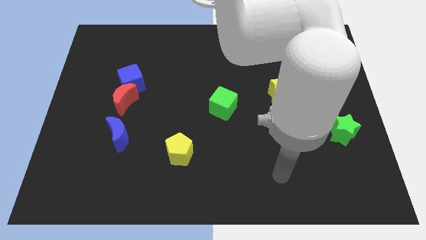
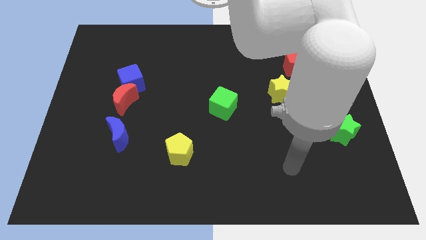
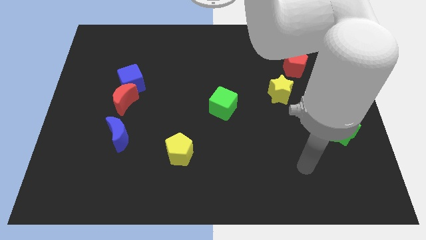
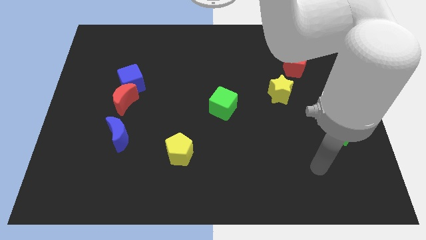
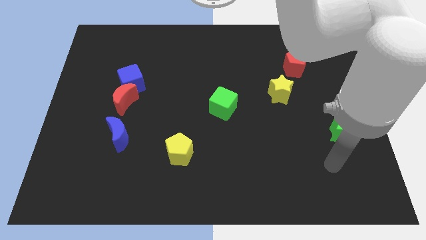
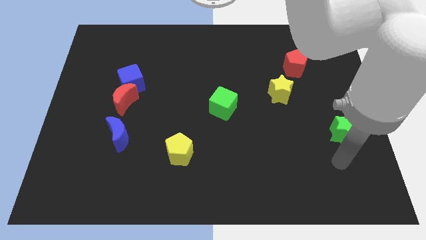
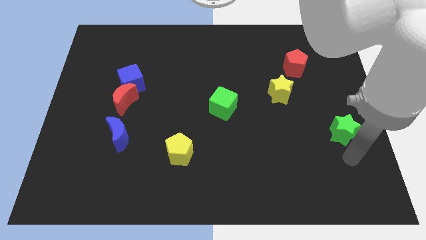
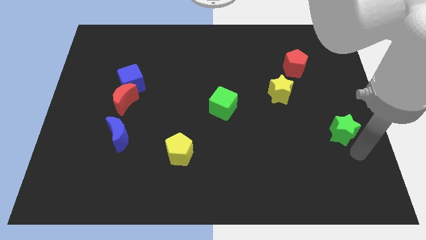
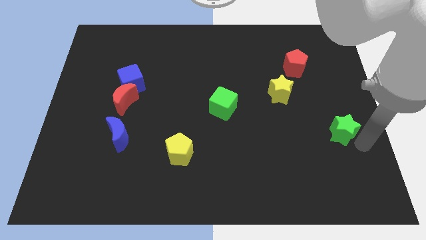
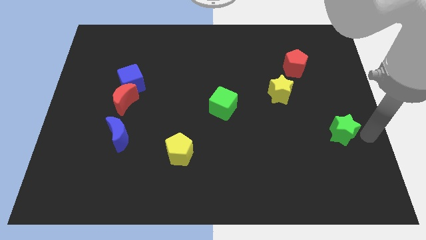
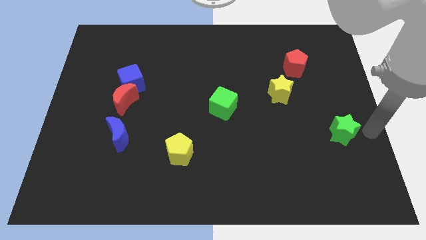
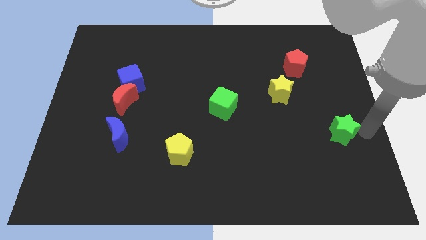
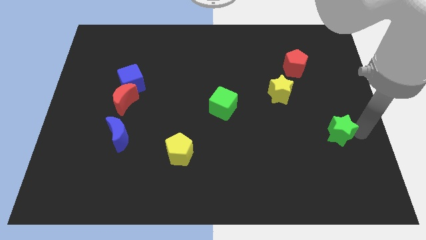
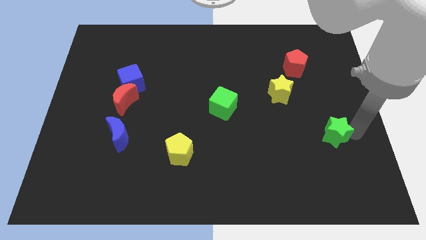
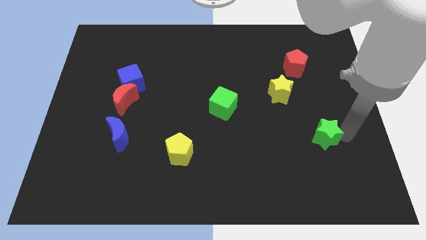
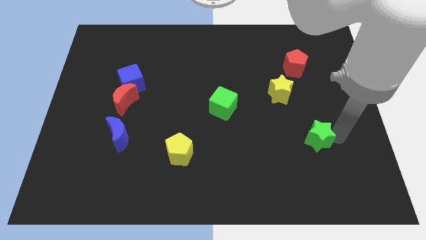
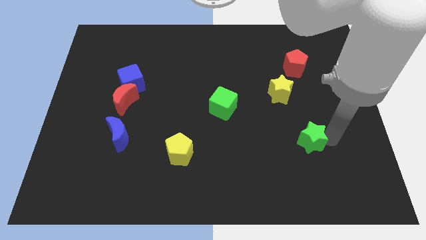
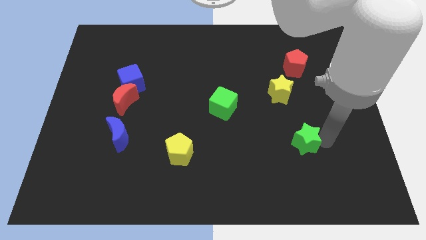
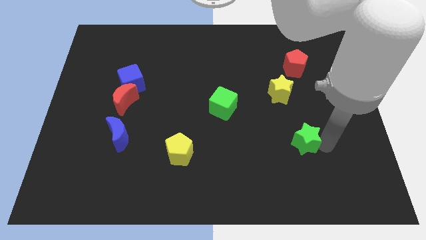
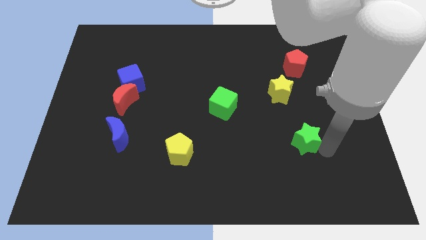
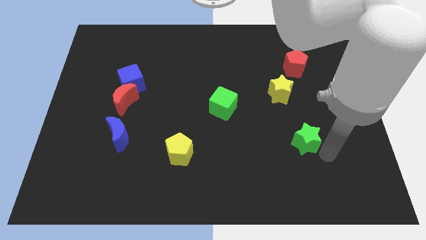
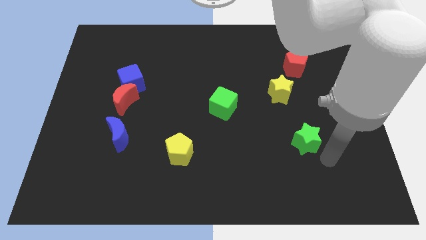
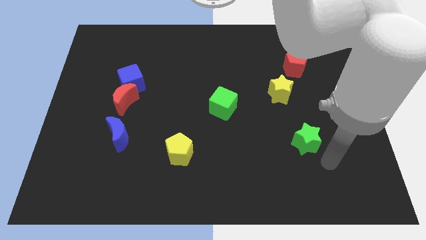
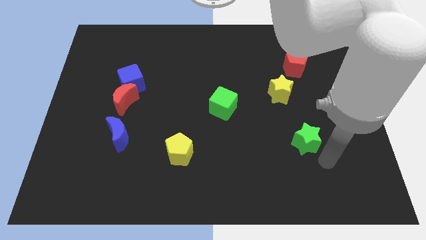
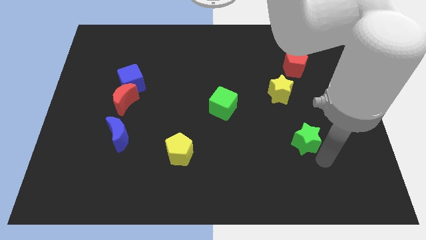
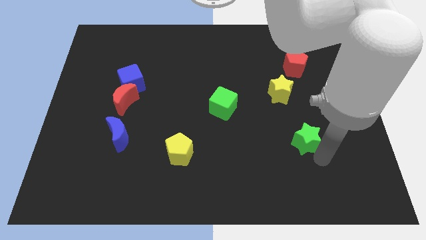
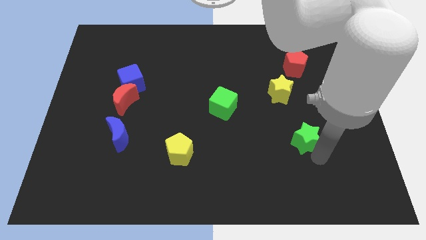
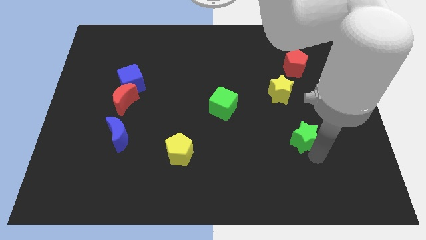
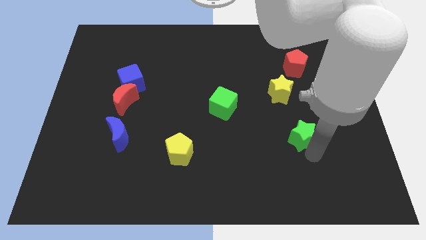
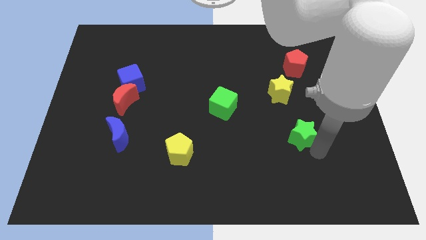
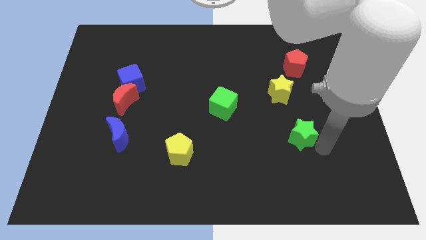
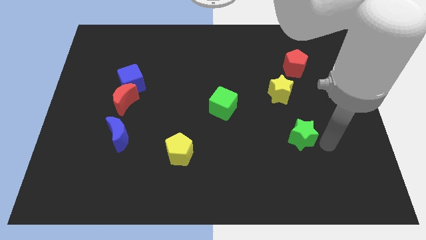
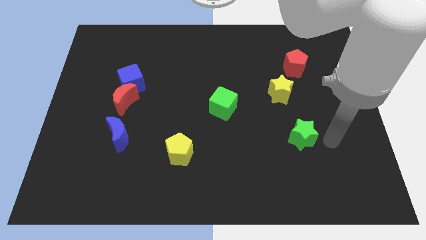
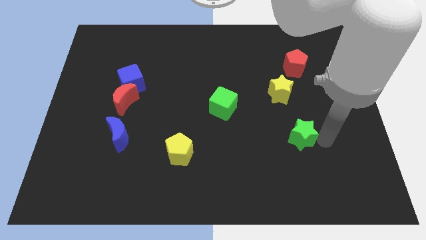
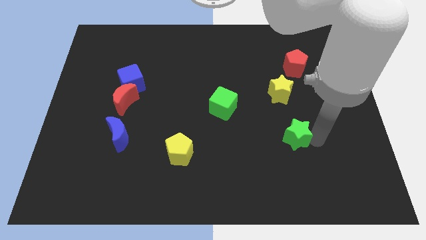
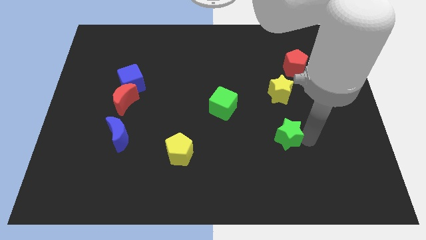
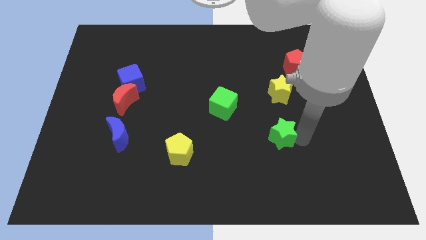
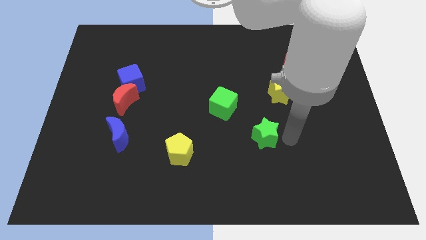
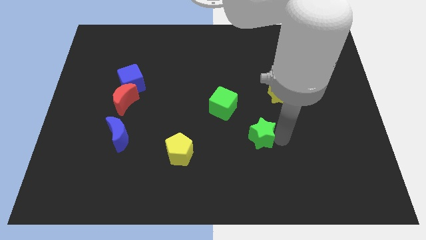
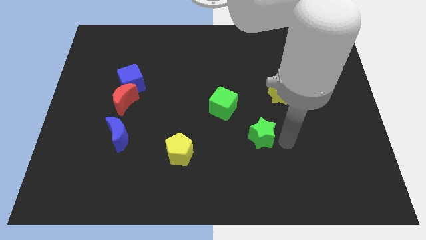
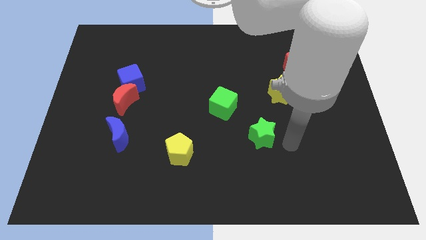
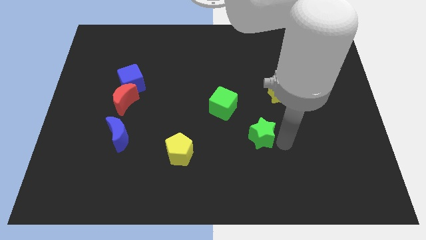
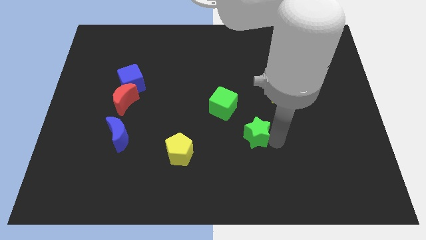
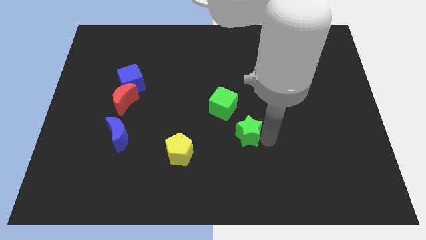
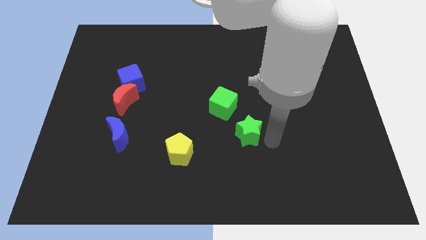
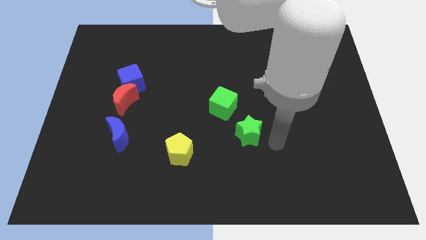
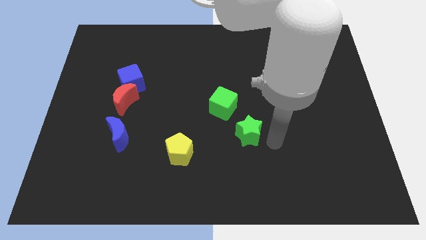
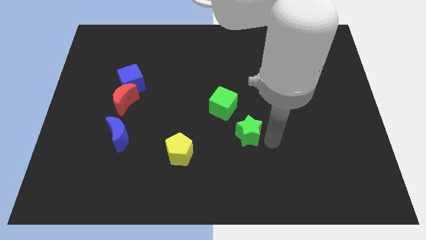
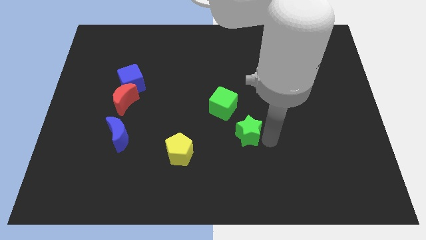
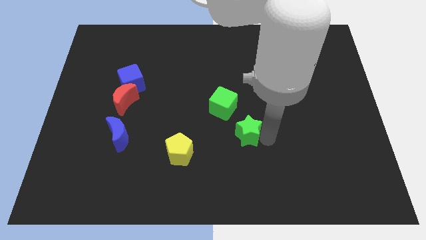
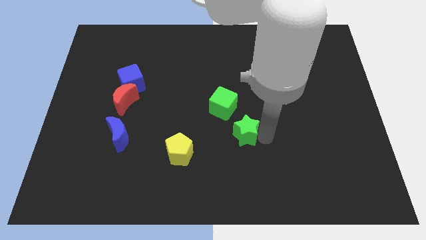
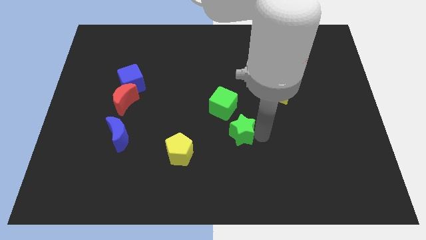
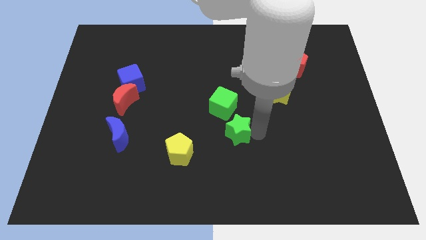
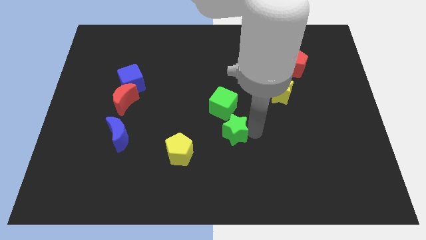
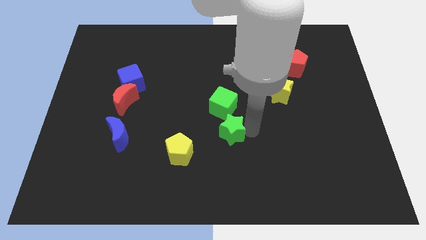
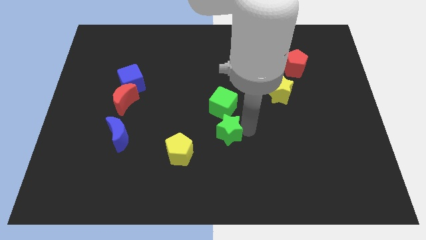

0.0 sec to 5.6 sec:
push the green star to the top right side of the yellow pentagon

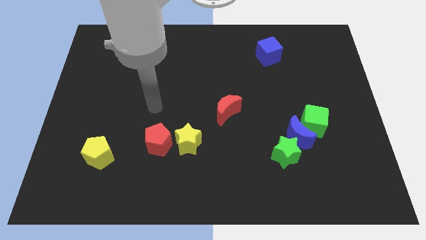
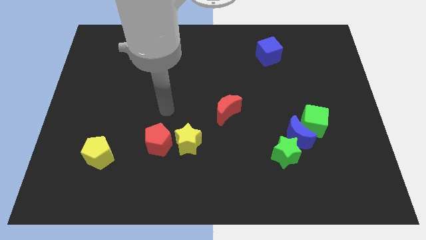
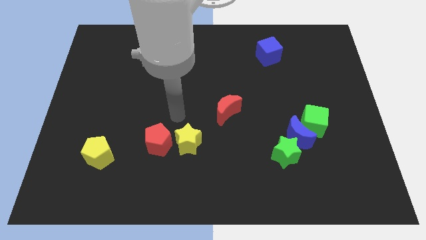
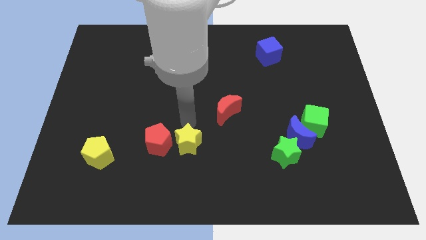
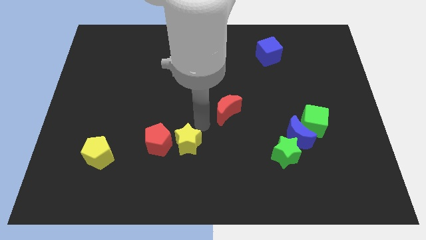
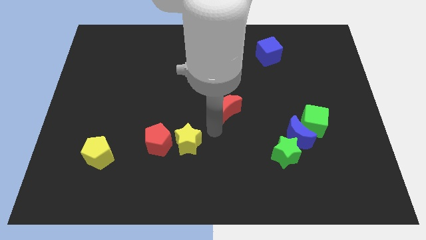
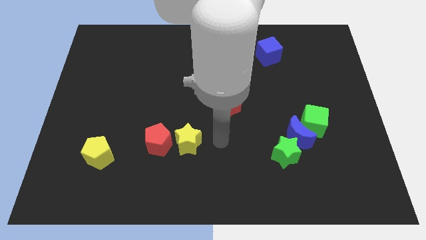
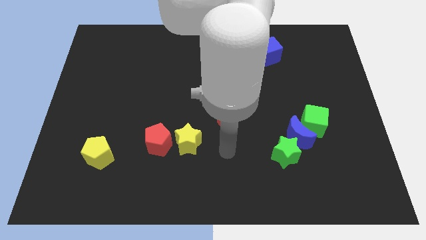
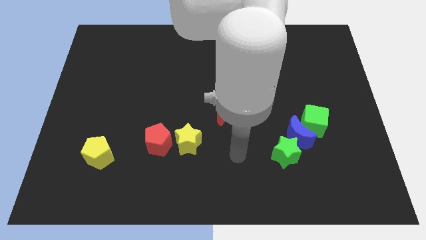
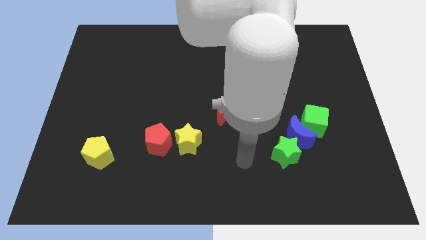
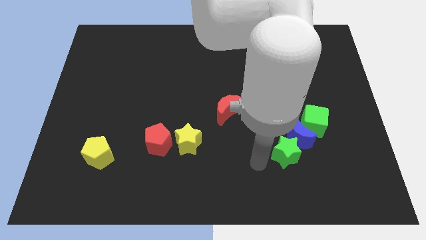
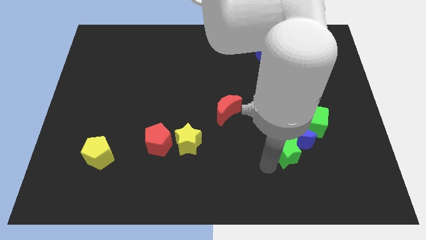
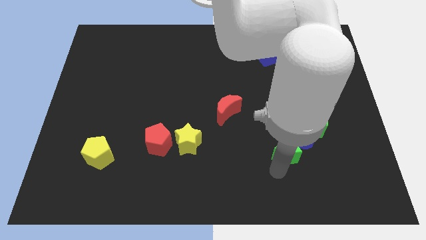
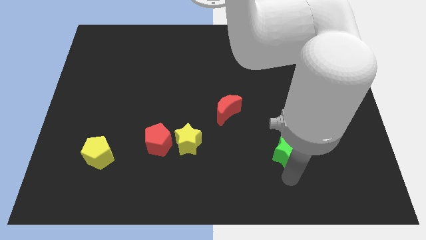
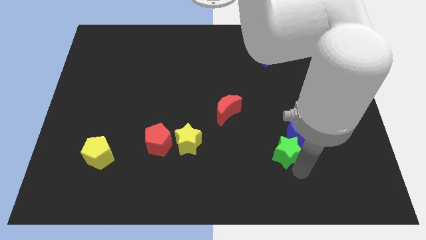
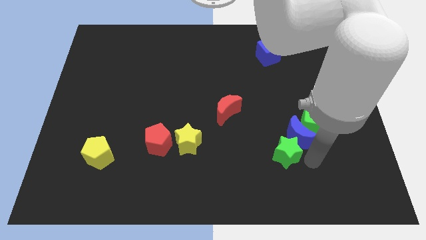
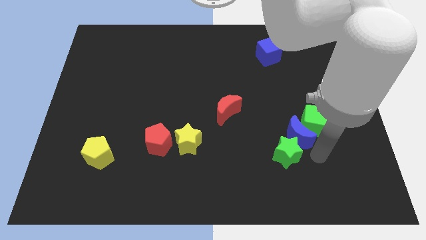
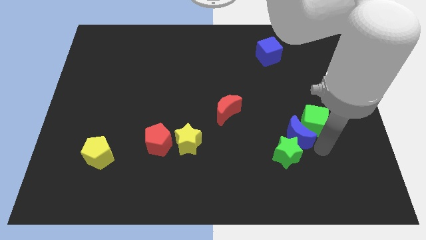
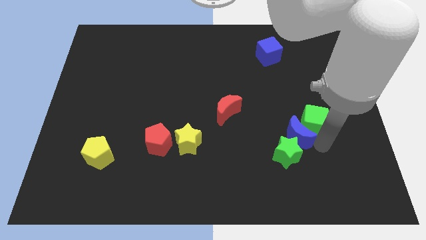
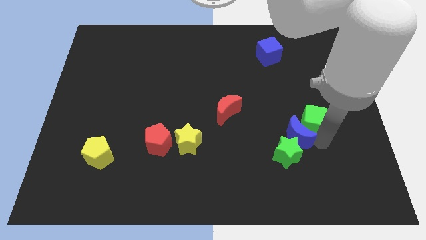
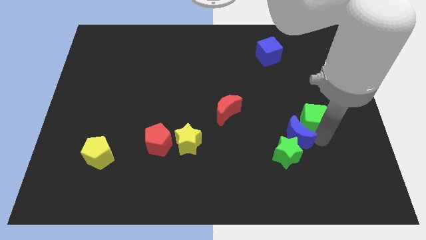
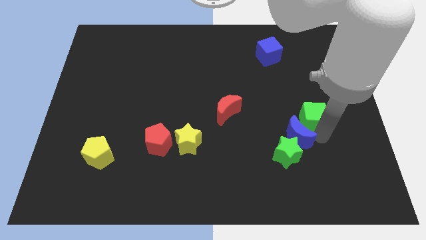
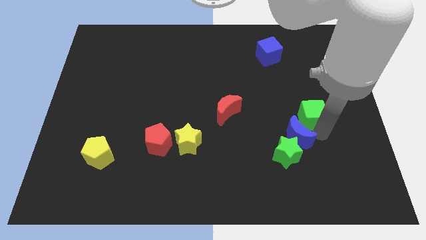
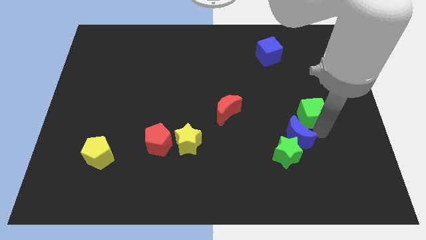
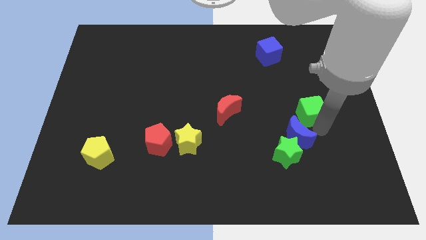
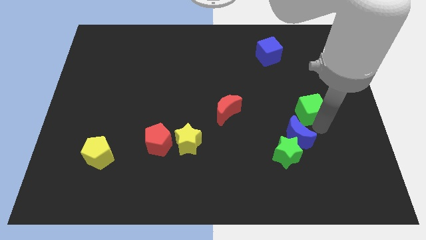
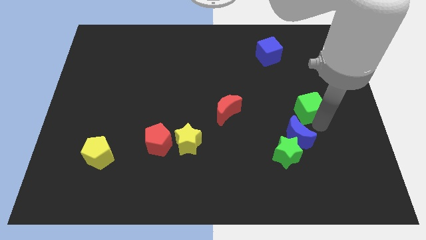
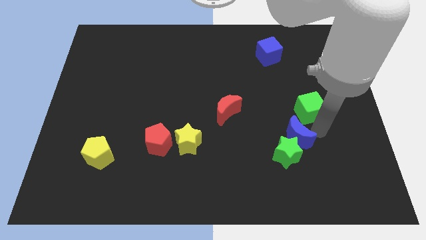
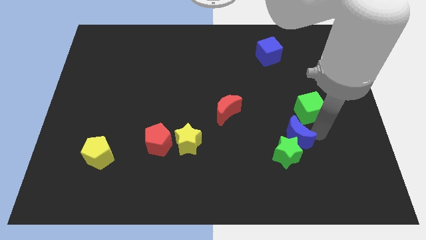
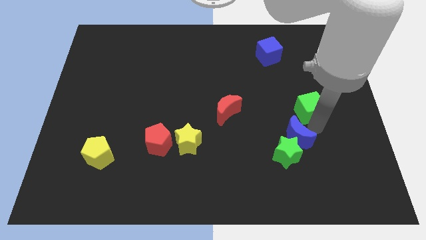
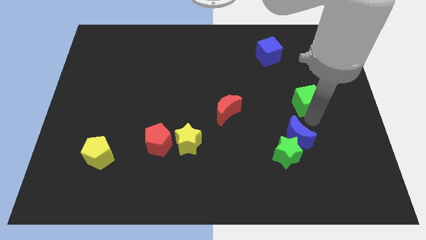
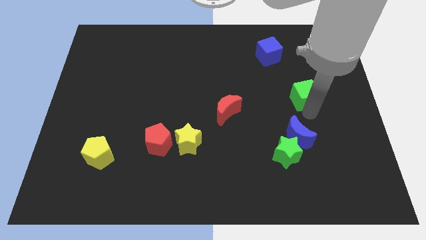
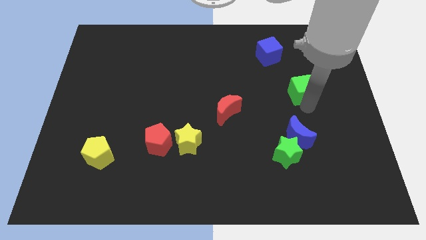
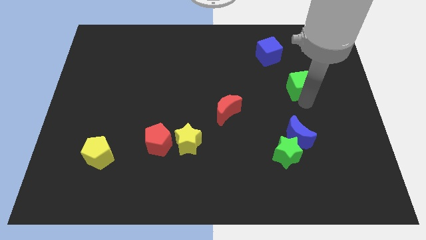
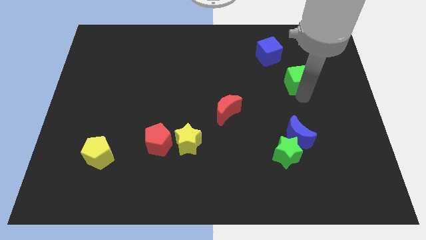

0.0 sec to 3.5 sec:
slide the green cube diagonally down and to the right of the blue cube
